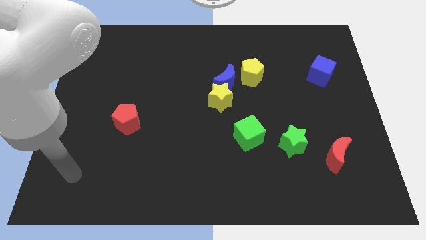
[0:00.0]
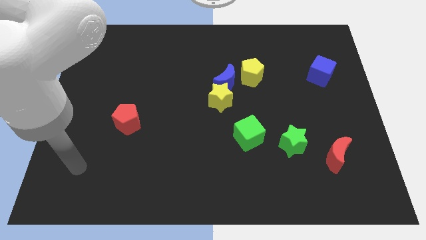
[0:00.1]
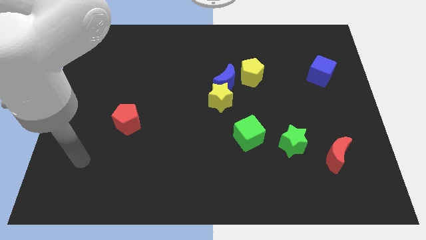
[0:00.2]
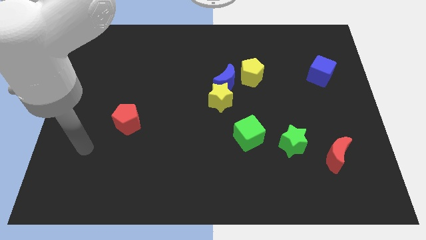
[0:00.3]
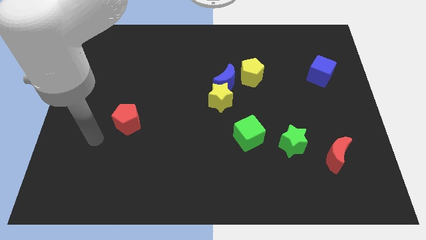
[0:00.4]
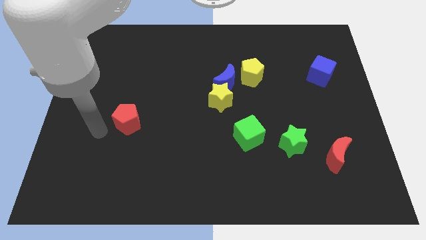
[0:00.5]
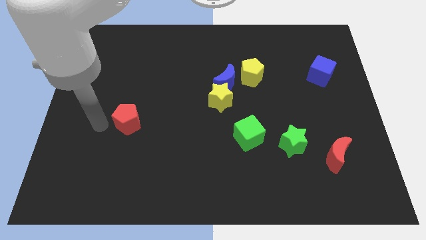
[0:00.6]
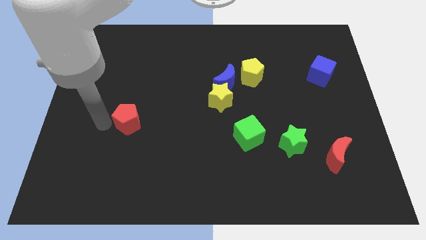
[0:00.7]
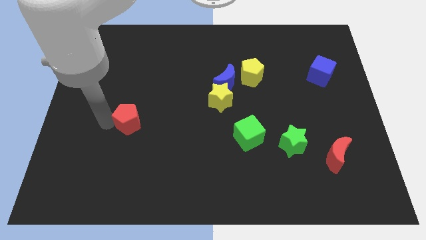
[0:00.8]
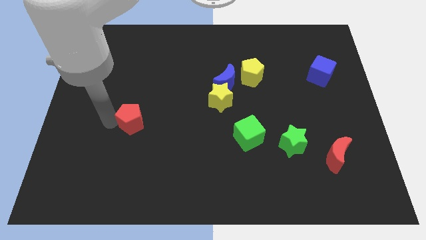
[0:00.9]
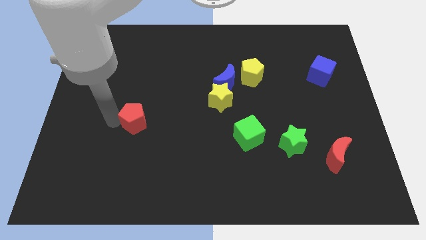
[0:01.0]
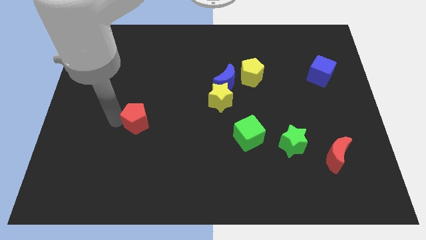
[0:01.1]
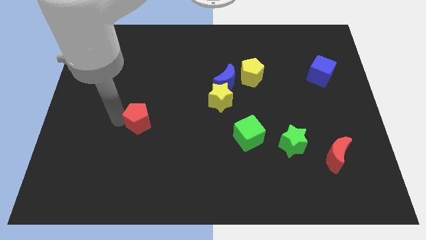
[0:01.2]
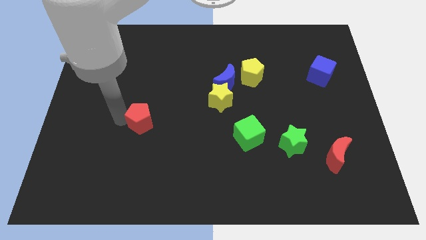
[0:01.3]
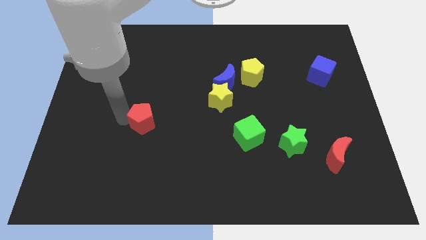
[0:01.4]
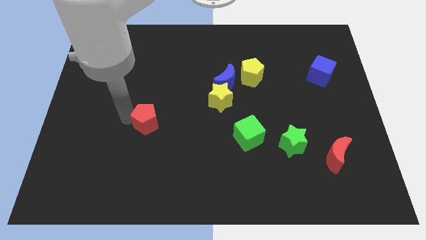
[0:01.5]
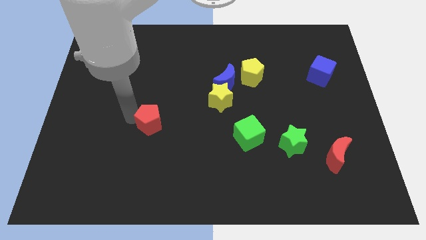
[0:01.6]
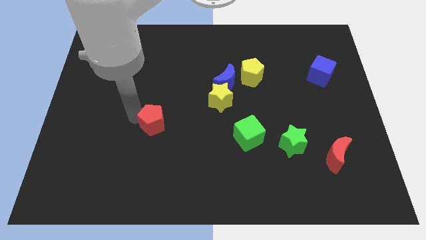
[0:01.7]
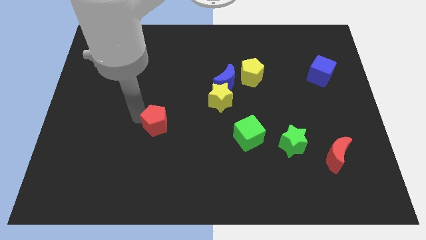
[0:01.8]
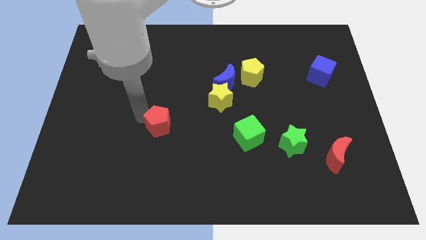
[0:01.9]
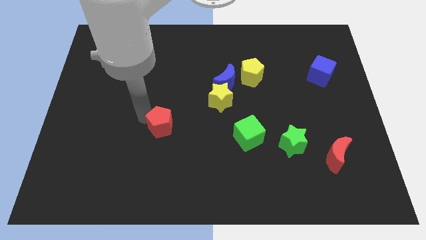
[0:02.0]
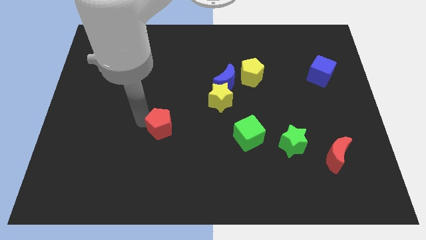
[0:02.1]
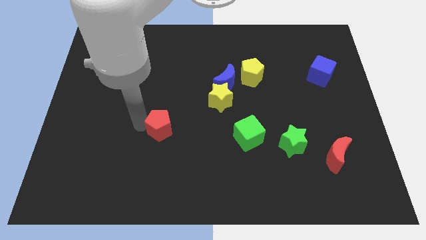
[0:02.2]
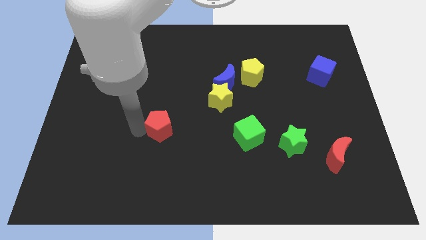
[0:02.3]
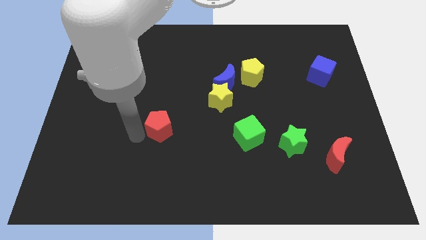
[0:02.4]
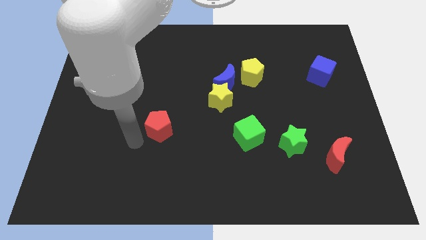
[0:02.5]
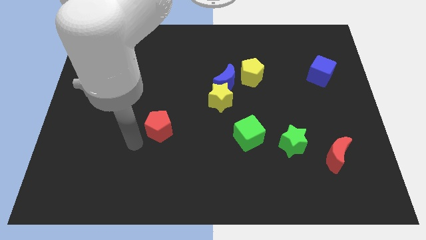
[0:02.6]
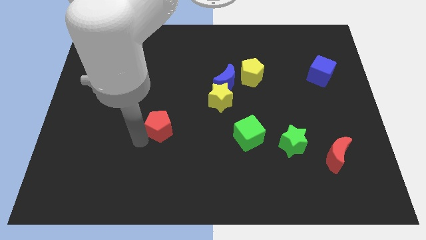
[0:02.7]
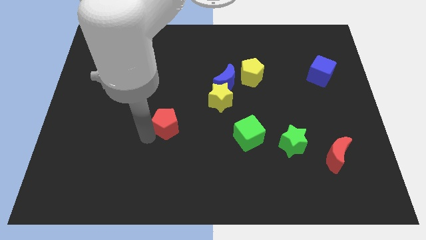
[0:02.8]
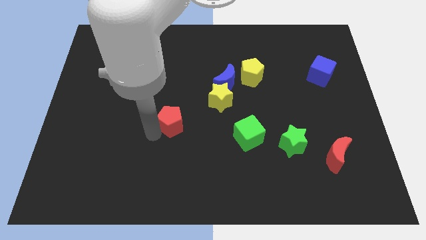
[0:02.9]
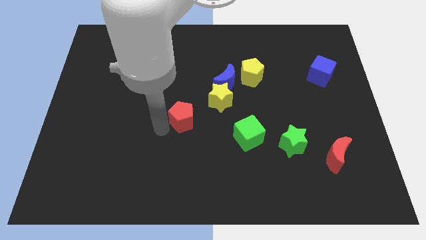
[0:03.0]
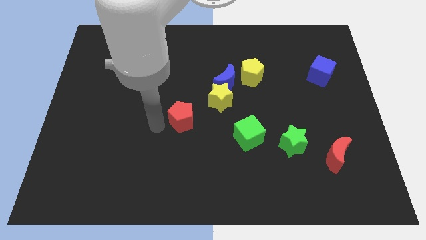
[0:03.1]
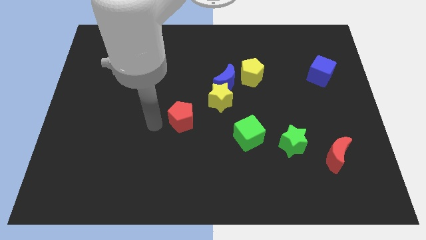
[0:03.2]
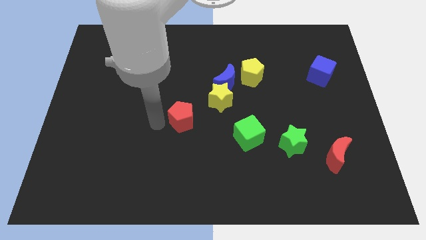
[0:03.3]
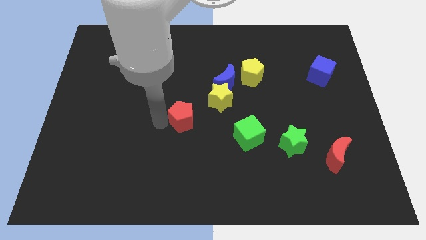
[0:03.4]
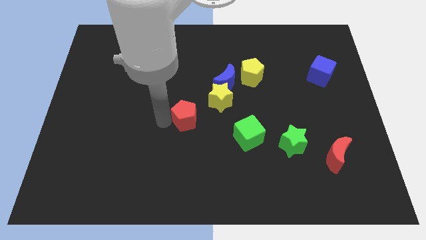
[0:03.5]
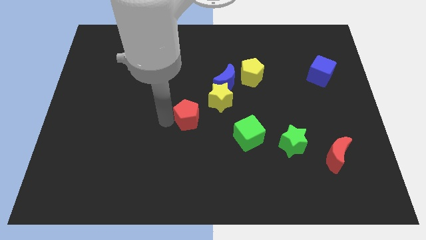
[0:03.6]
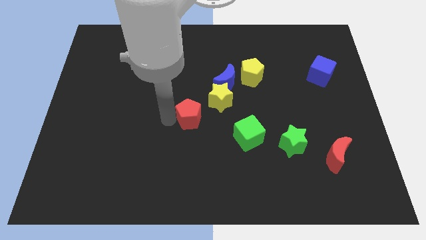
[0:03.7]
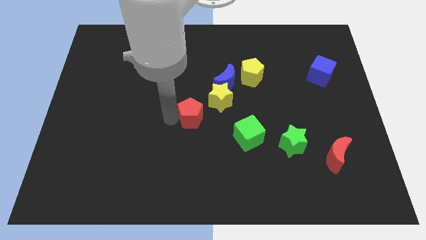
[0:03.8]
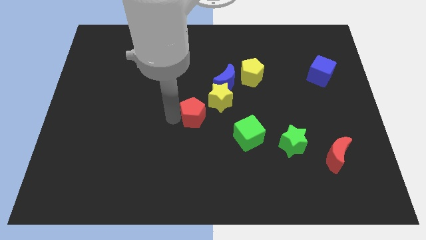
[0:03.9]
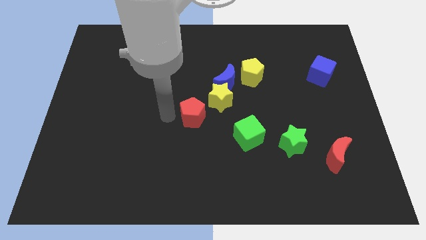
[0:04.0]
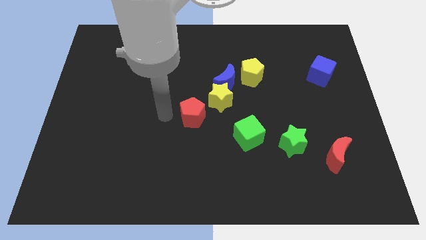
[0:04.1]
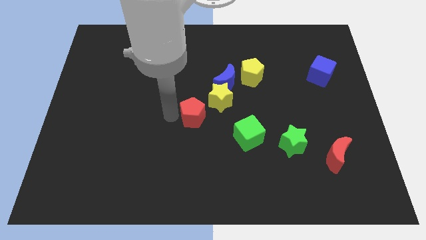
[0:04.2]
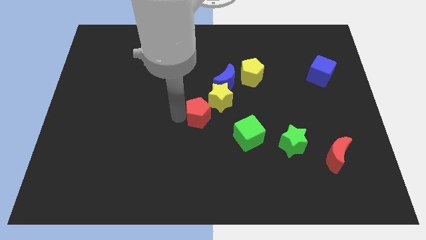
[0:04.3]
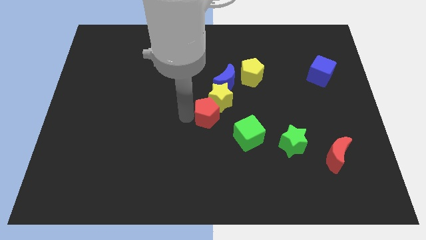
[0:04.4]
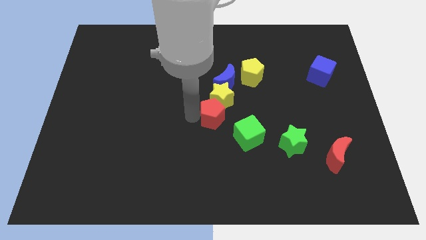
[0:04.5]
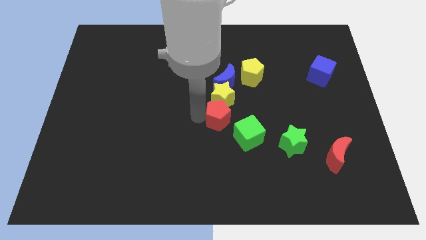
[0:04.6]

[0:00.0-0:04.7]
slide the red pentagon right

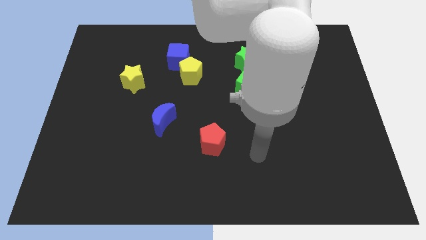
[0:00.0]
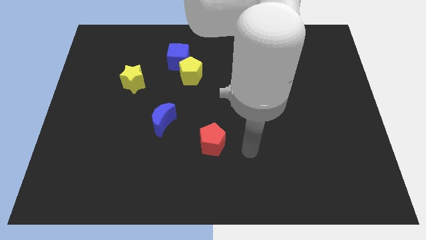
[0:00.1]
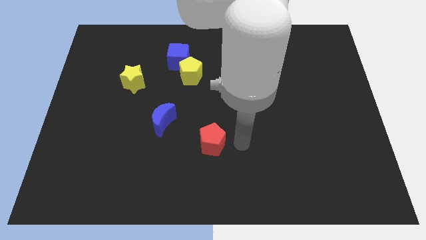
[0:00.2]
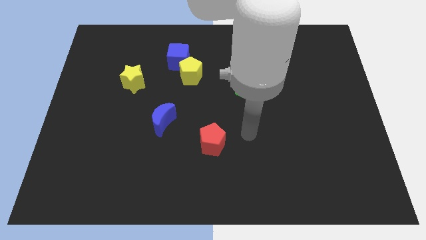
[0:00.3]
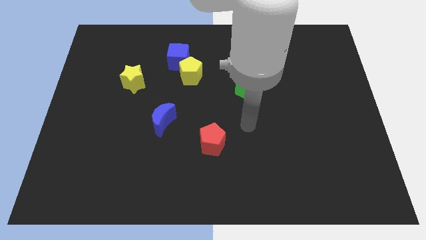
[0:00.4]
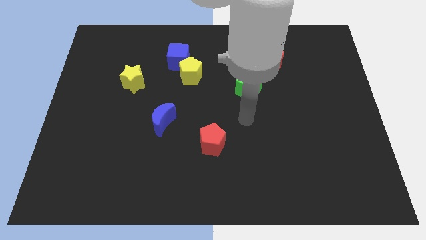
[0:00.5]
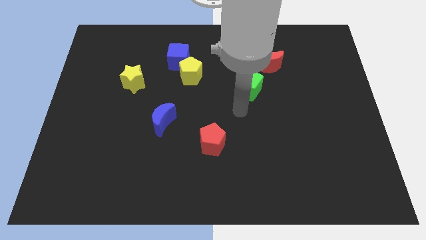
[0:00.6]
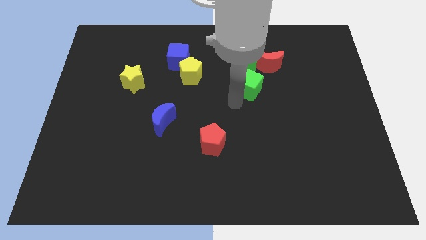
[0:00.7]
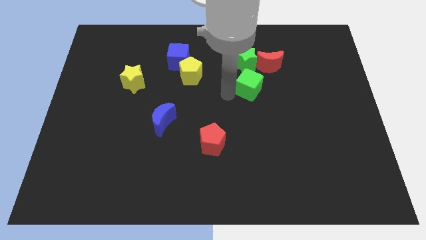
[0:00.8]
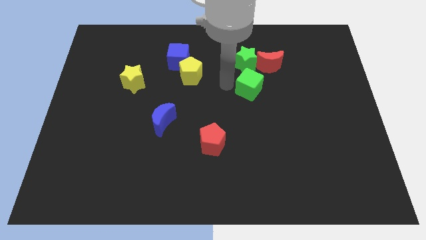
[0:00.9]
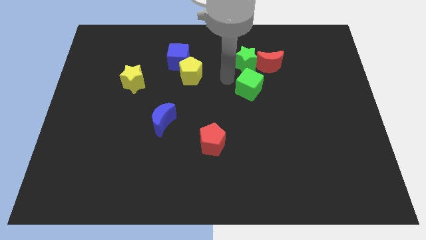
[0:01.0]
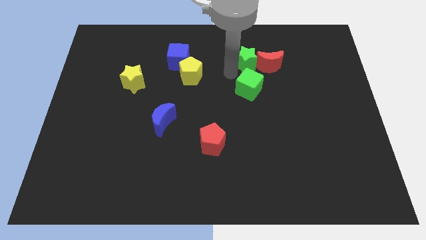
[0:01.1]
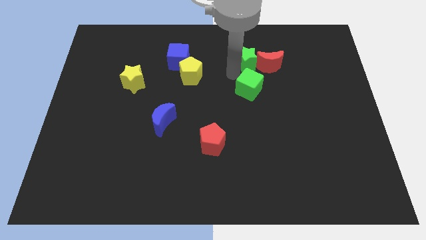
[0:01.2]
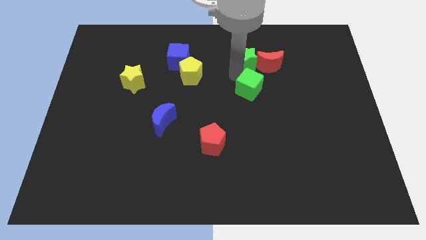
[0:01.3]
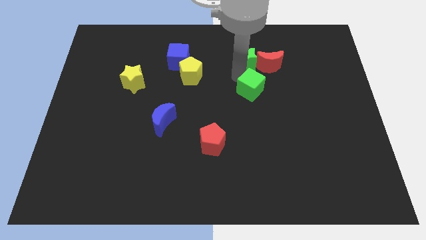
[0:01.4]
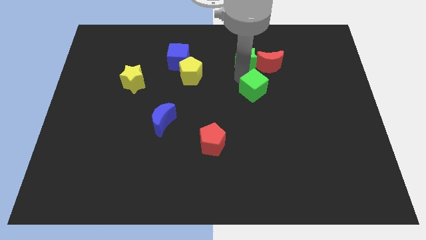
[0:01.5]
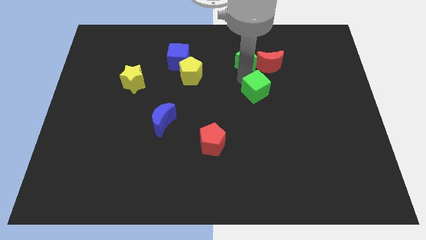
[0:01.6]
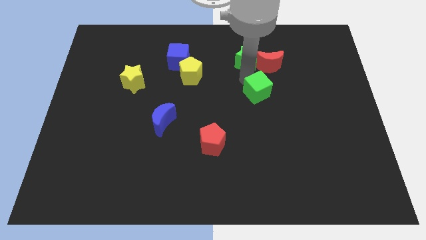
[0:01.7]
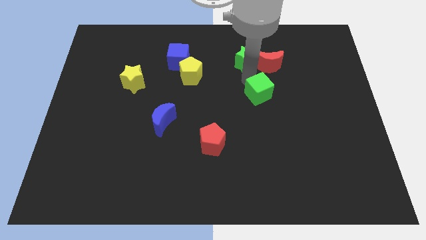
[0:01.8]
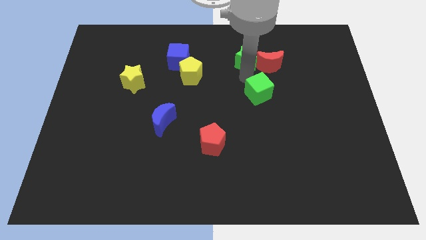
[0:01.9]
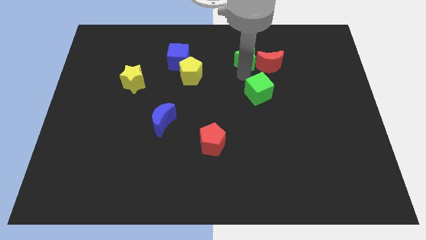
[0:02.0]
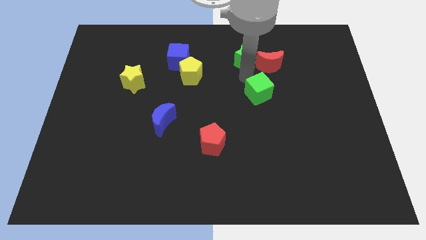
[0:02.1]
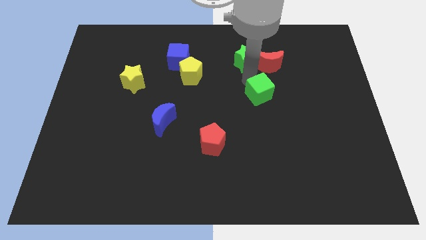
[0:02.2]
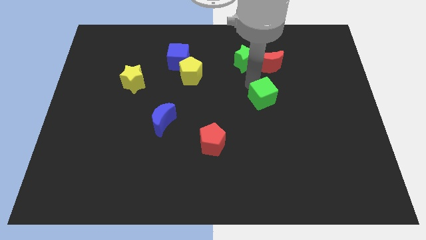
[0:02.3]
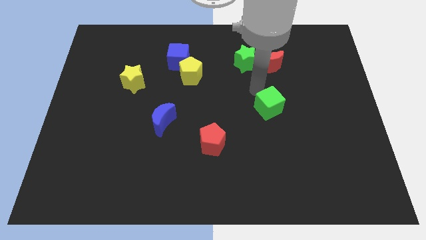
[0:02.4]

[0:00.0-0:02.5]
slide the green cube a little bit diagonally down and right

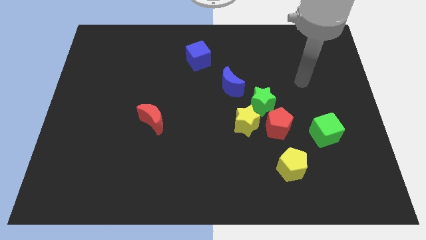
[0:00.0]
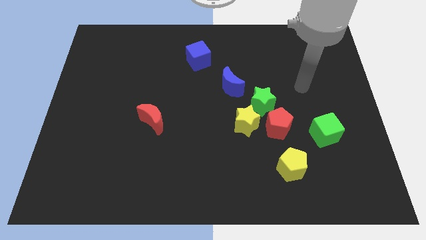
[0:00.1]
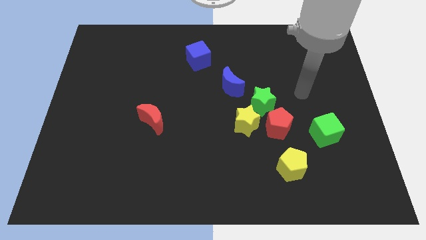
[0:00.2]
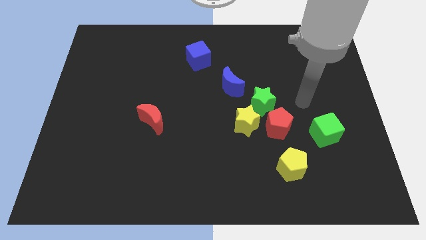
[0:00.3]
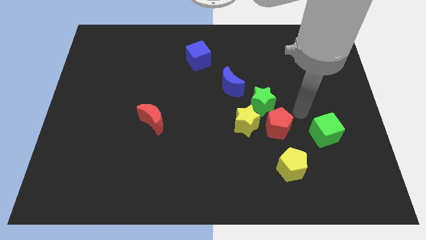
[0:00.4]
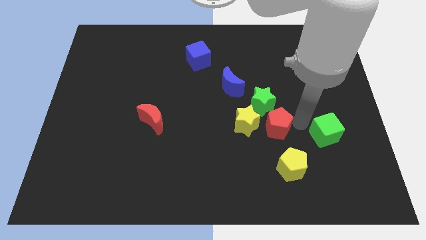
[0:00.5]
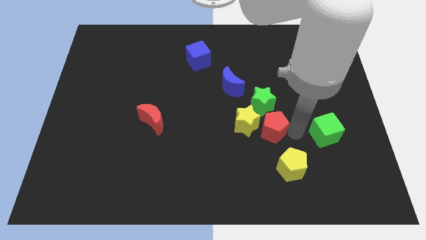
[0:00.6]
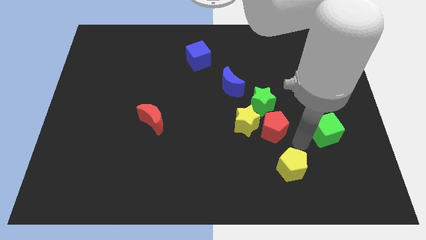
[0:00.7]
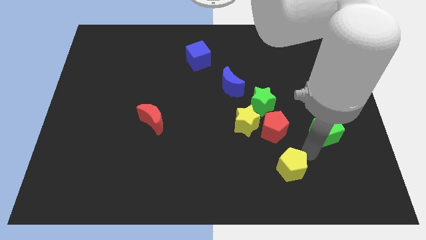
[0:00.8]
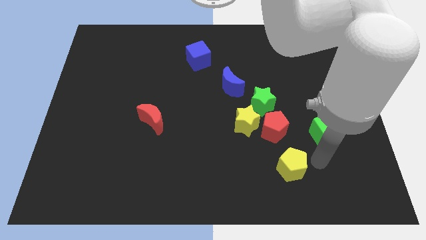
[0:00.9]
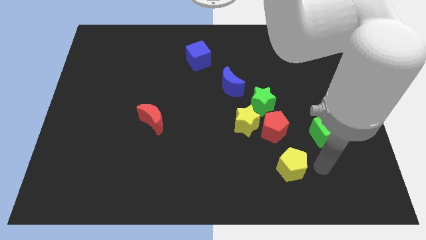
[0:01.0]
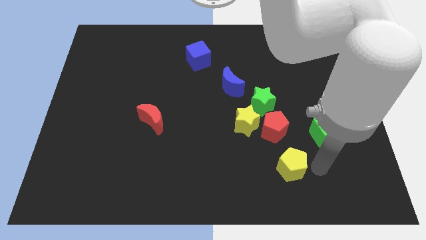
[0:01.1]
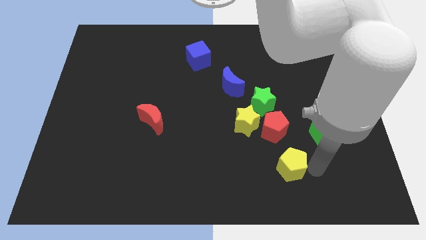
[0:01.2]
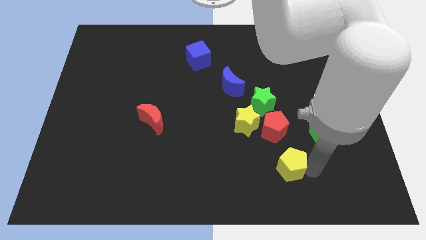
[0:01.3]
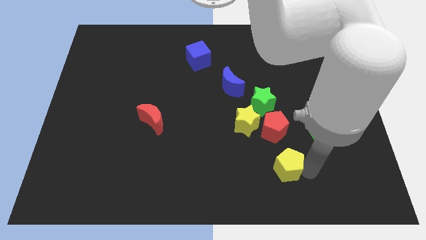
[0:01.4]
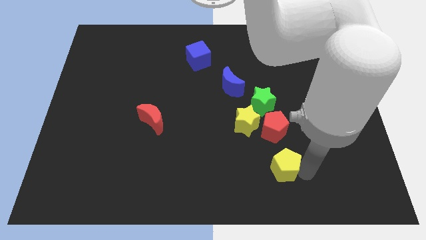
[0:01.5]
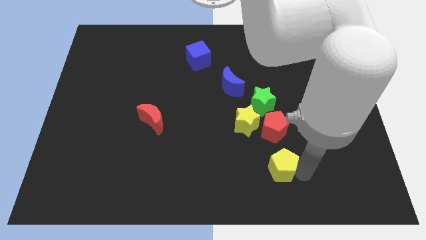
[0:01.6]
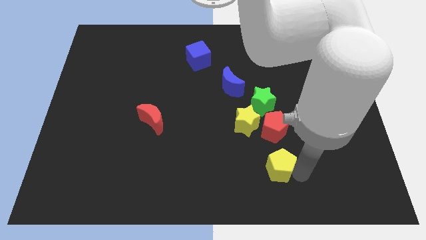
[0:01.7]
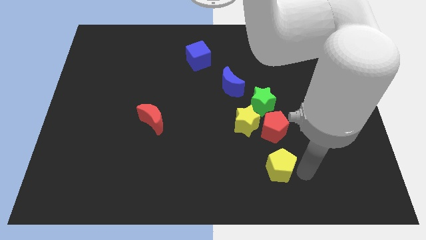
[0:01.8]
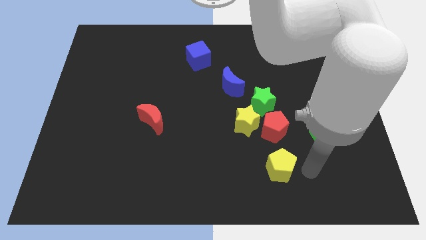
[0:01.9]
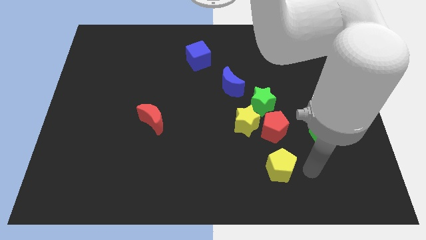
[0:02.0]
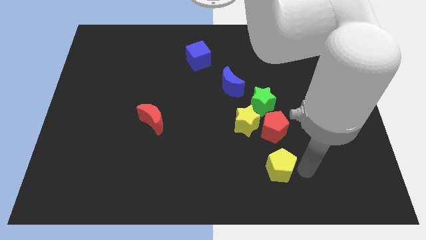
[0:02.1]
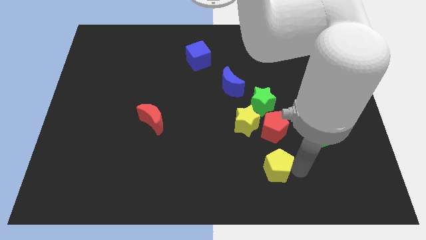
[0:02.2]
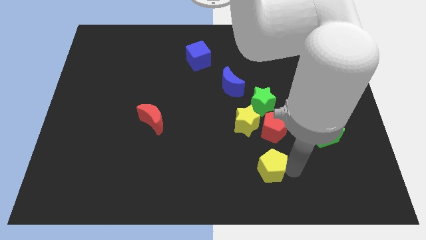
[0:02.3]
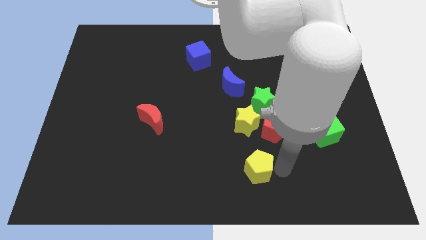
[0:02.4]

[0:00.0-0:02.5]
slightly slide the yellow pentagon to the left
